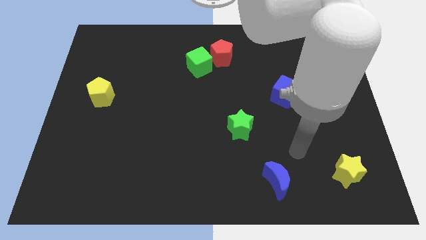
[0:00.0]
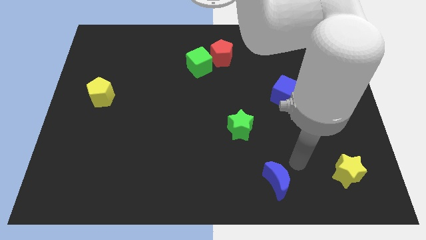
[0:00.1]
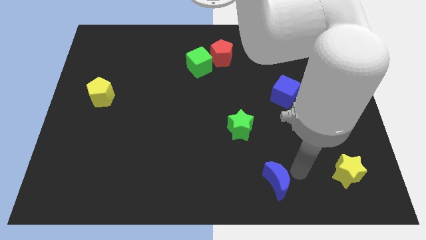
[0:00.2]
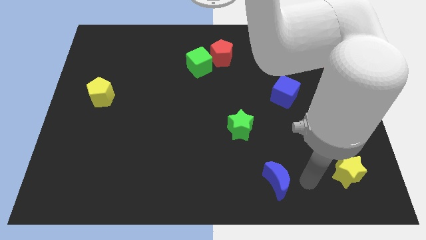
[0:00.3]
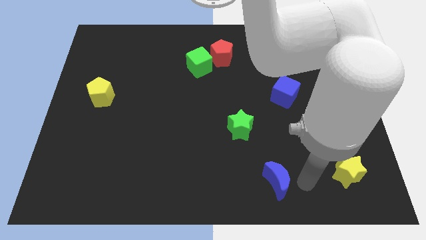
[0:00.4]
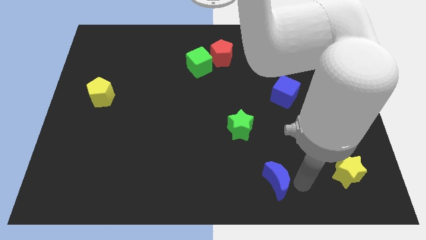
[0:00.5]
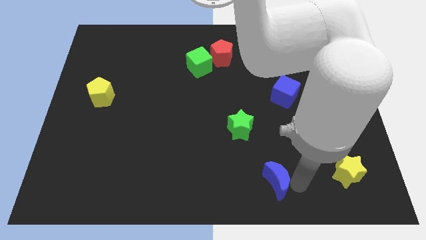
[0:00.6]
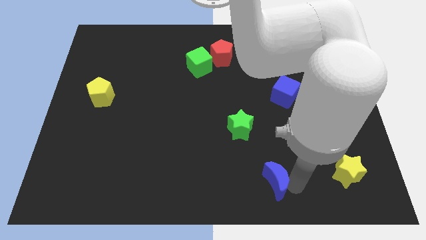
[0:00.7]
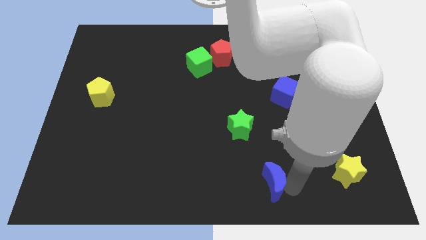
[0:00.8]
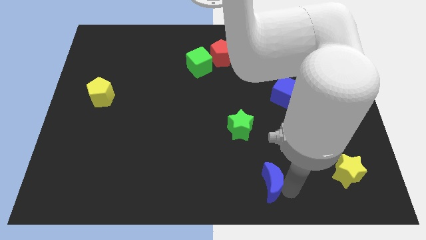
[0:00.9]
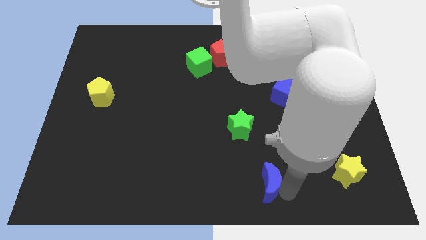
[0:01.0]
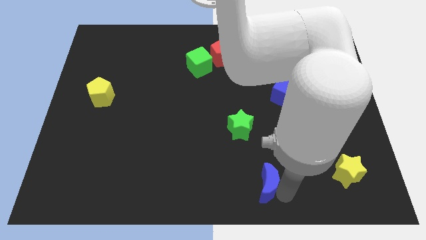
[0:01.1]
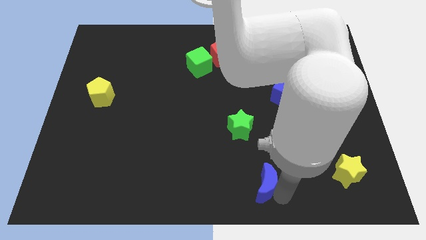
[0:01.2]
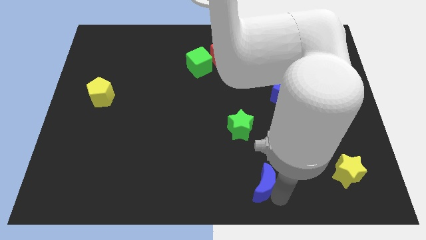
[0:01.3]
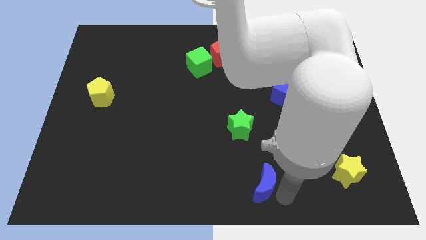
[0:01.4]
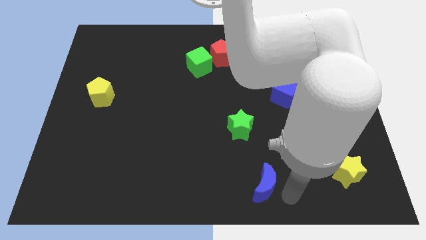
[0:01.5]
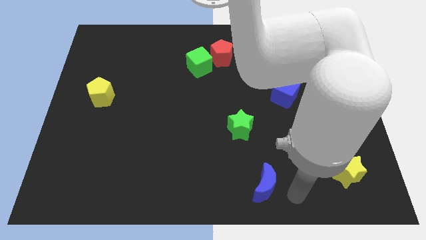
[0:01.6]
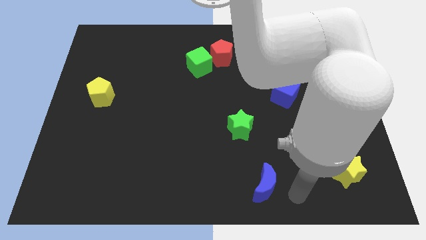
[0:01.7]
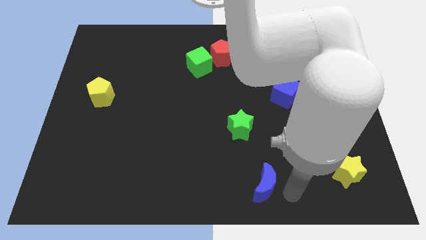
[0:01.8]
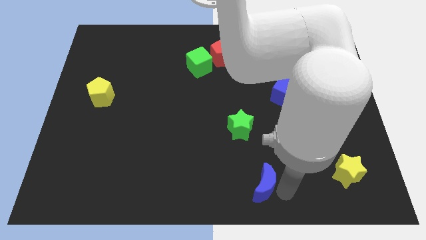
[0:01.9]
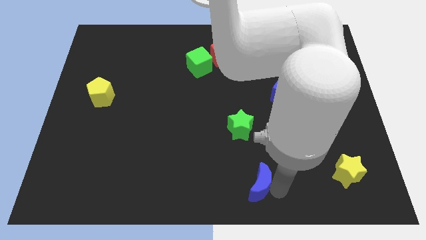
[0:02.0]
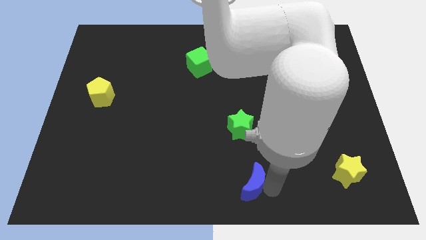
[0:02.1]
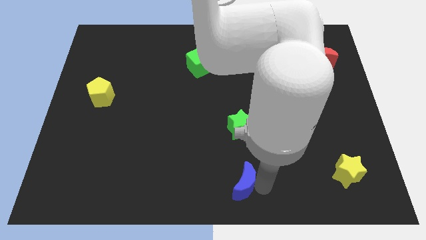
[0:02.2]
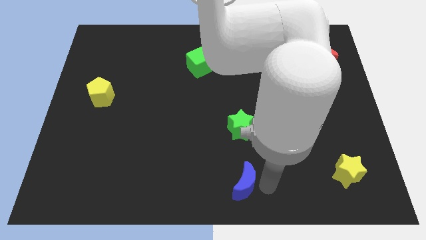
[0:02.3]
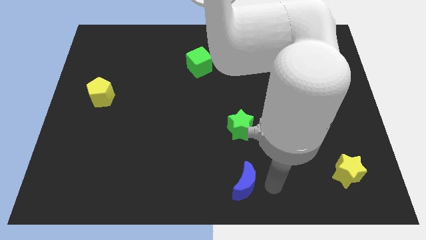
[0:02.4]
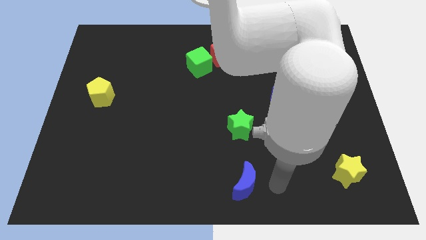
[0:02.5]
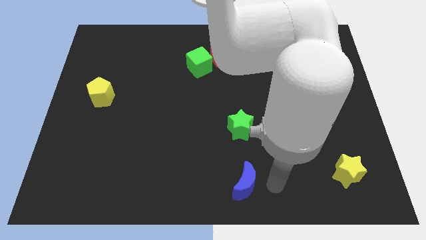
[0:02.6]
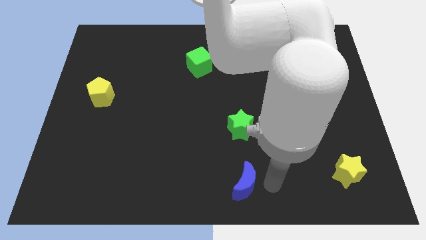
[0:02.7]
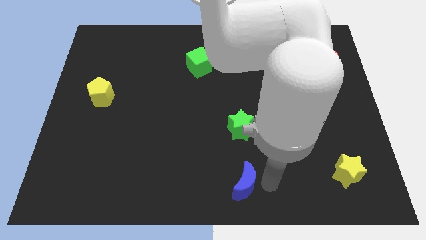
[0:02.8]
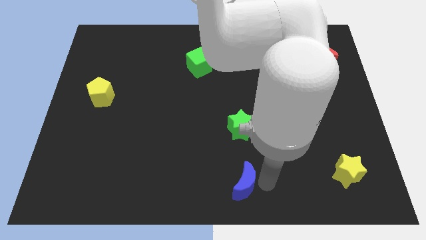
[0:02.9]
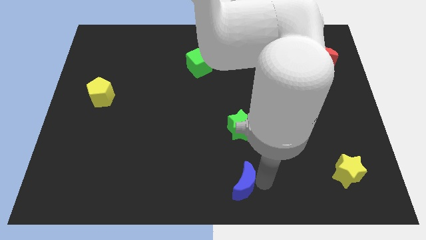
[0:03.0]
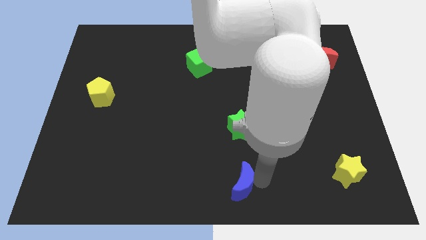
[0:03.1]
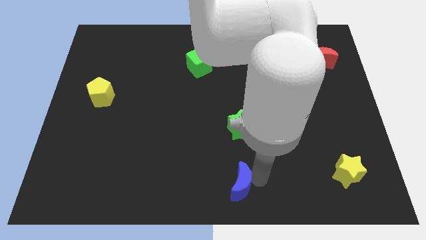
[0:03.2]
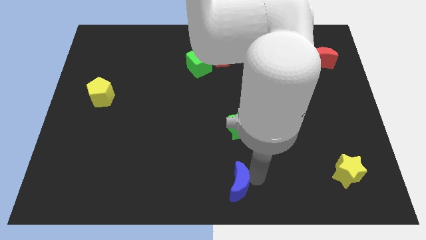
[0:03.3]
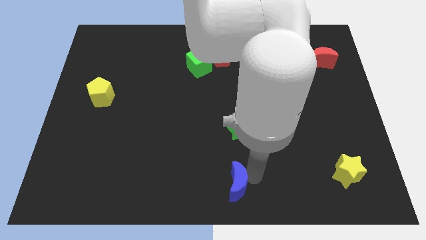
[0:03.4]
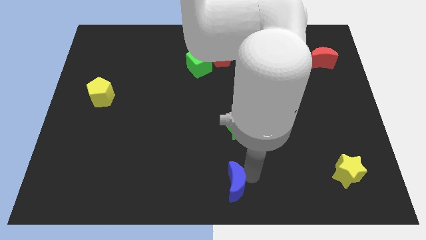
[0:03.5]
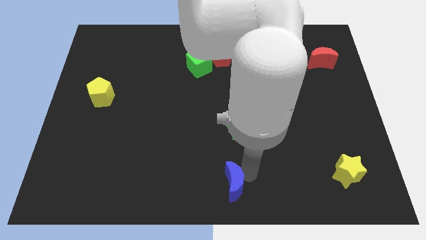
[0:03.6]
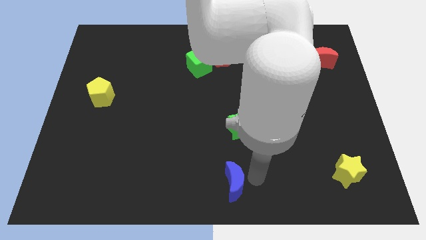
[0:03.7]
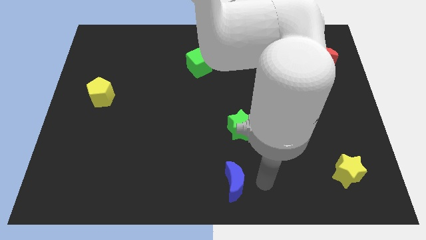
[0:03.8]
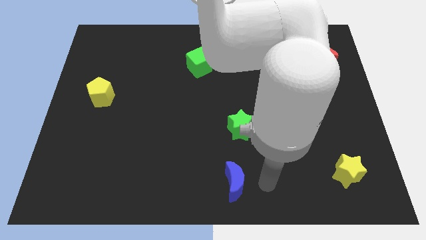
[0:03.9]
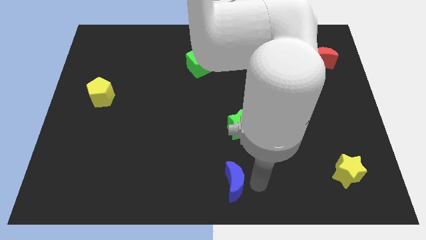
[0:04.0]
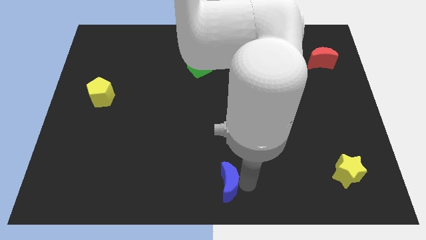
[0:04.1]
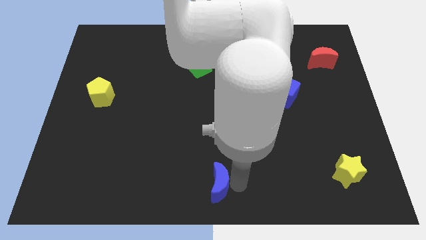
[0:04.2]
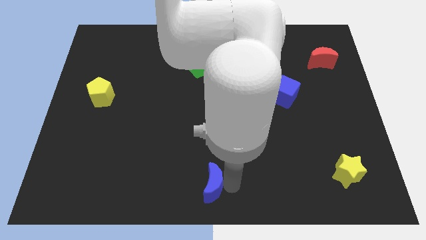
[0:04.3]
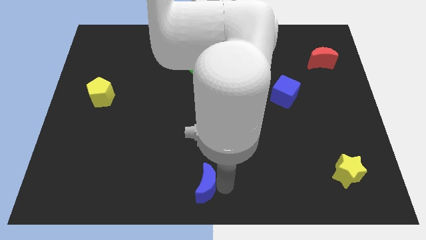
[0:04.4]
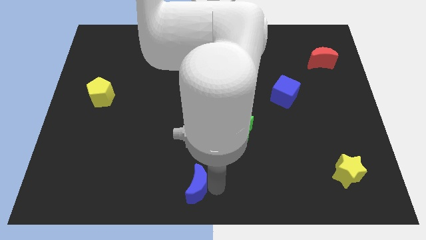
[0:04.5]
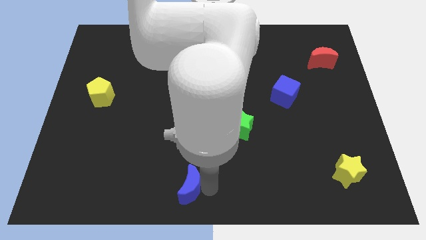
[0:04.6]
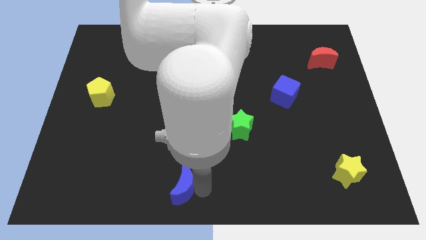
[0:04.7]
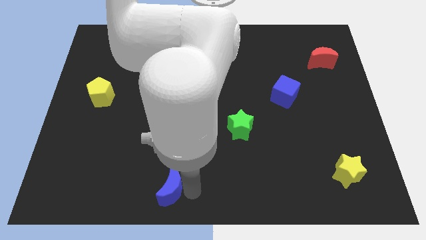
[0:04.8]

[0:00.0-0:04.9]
slide the blue moon to the left

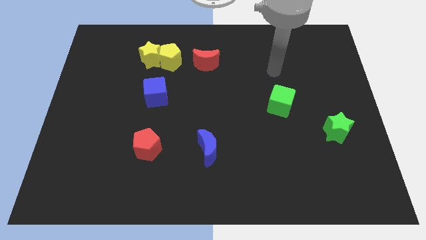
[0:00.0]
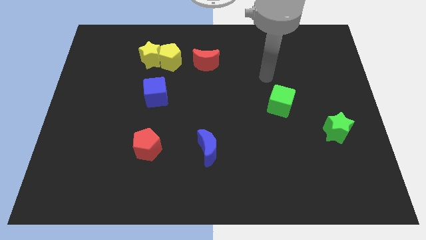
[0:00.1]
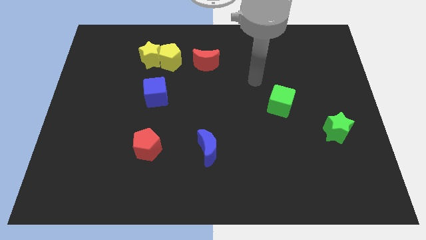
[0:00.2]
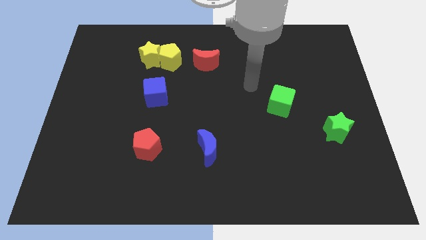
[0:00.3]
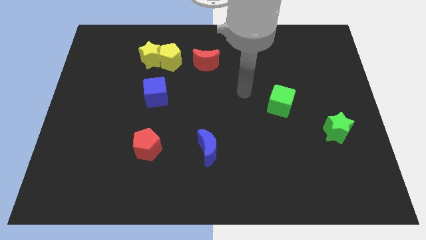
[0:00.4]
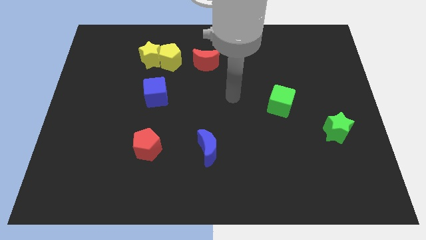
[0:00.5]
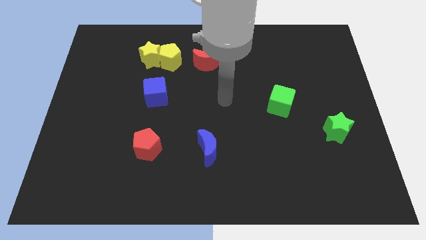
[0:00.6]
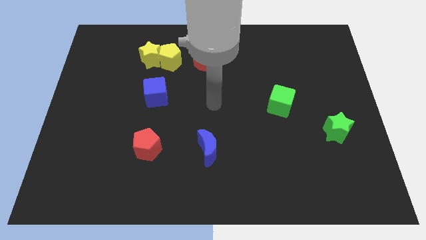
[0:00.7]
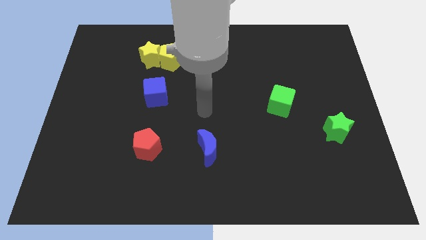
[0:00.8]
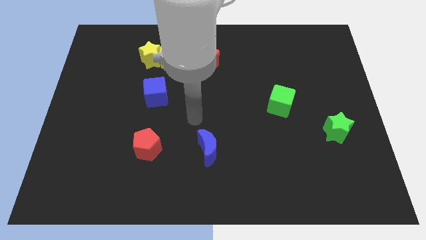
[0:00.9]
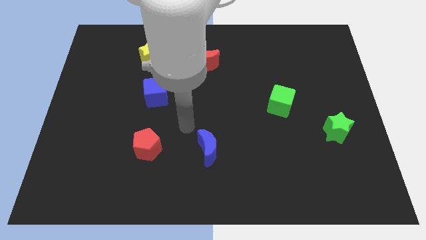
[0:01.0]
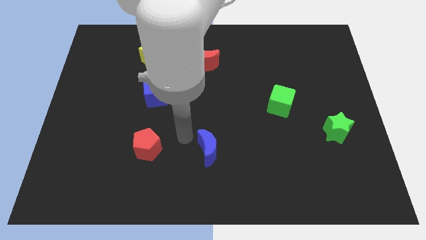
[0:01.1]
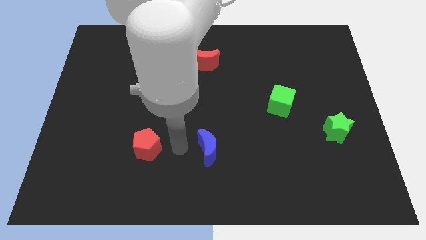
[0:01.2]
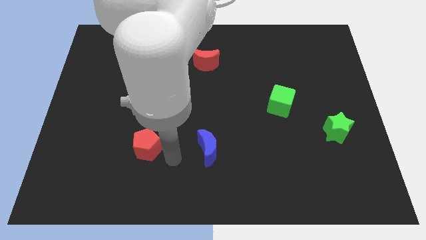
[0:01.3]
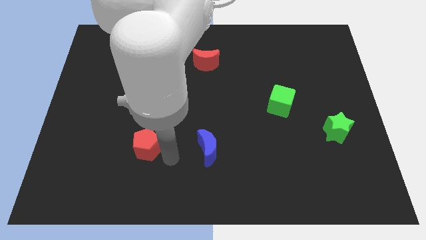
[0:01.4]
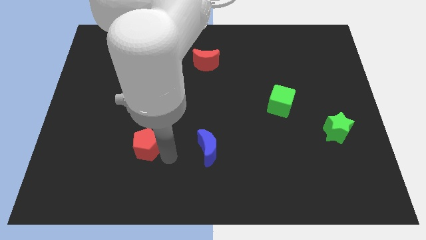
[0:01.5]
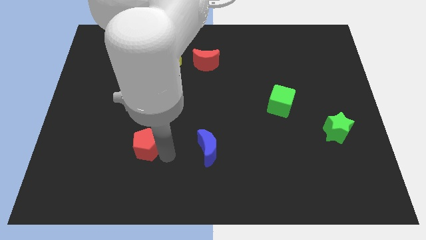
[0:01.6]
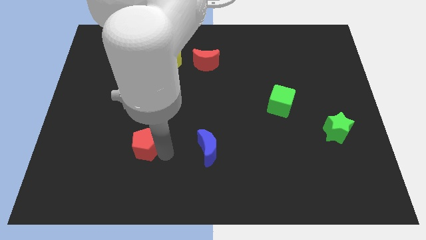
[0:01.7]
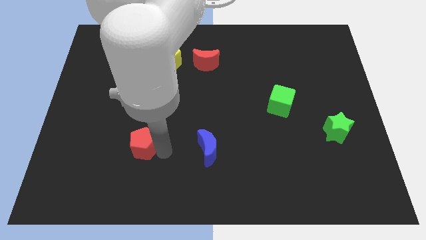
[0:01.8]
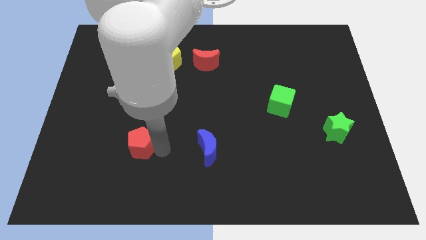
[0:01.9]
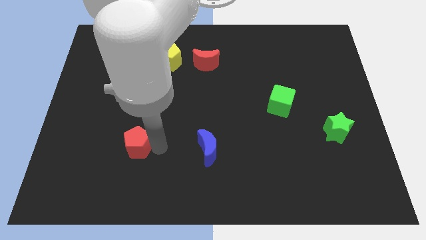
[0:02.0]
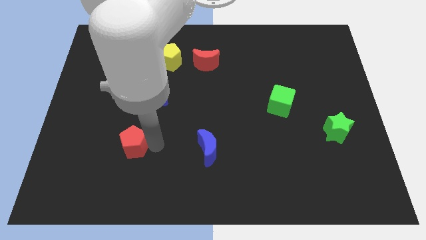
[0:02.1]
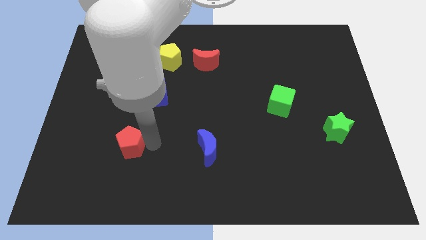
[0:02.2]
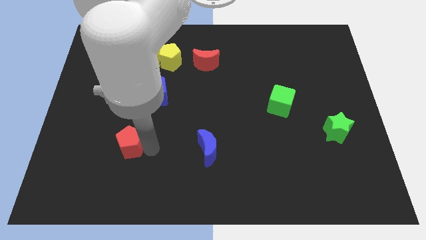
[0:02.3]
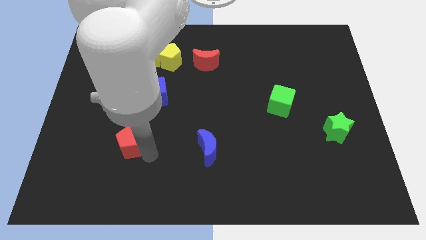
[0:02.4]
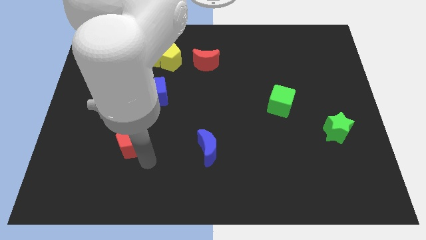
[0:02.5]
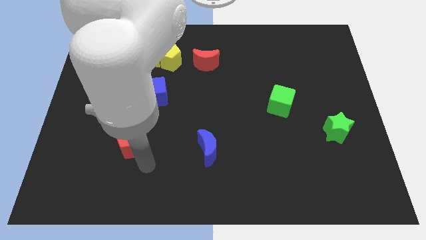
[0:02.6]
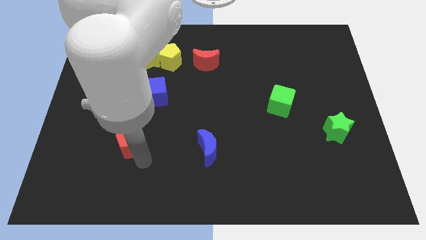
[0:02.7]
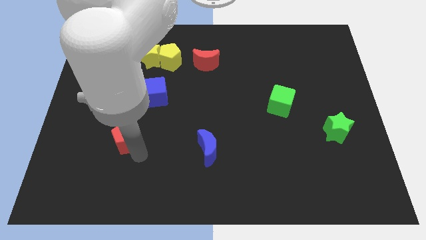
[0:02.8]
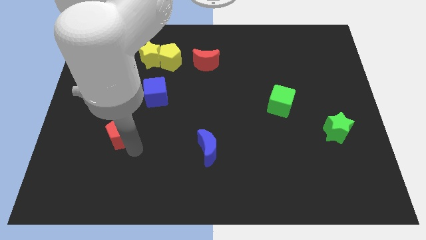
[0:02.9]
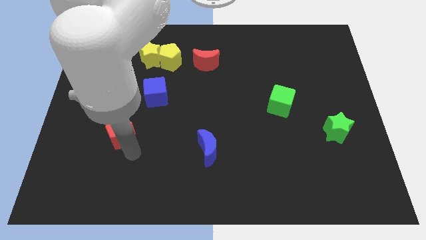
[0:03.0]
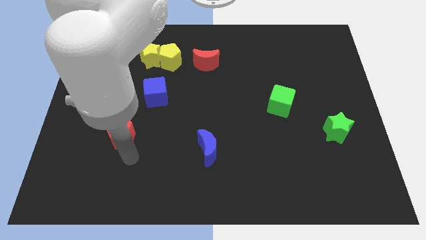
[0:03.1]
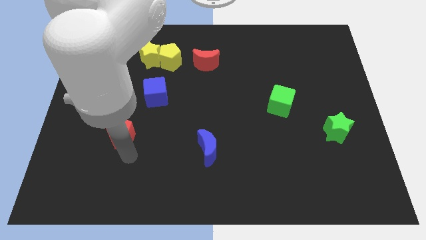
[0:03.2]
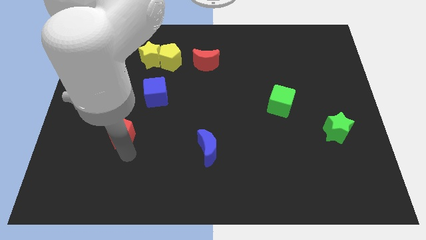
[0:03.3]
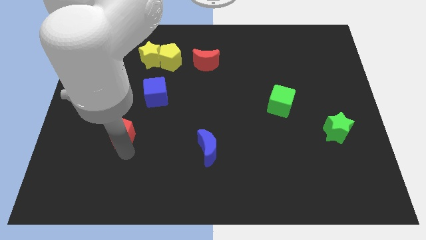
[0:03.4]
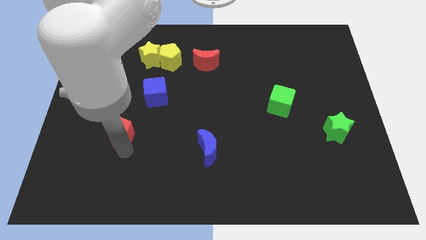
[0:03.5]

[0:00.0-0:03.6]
slide the red pentagon up and to the left diagonally a little
